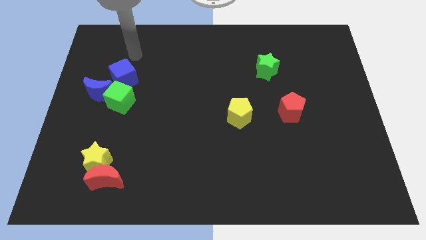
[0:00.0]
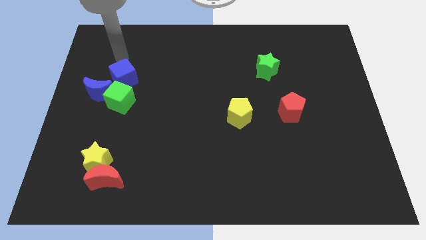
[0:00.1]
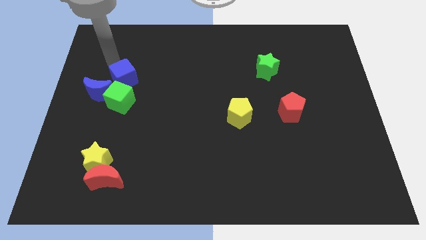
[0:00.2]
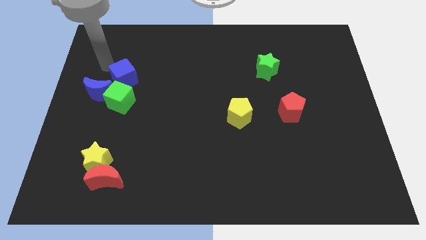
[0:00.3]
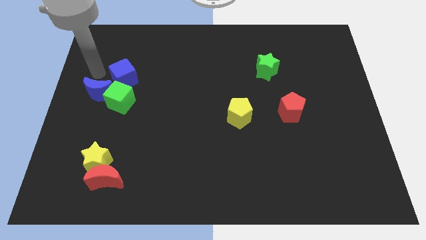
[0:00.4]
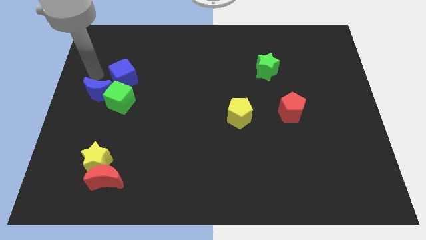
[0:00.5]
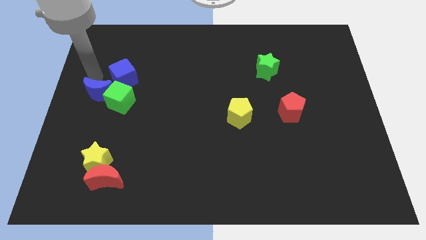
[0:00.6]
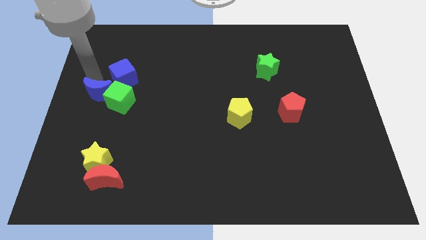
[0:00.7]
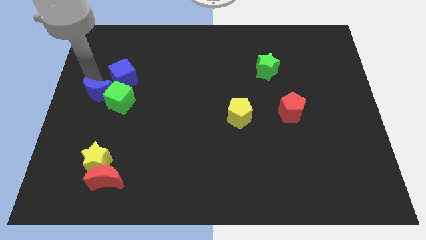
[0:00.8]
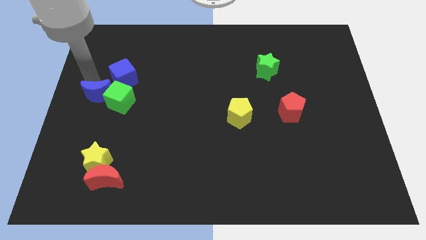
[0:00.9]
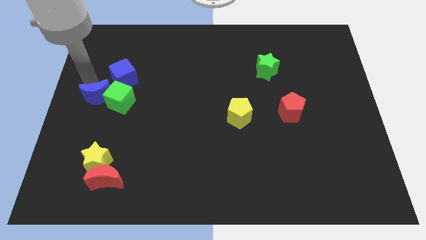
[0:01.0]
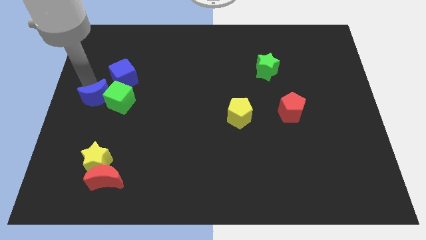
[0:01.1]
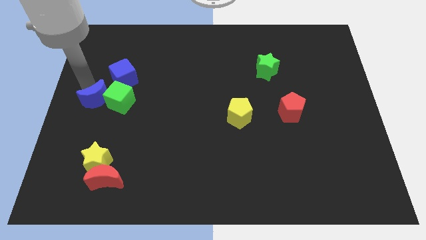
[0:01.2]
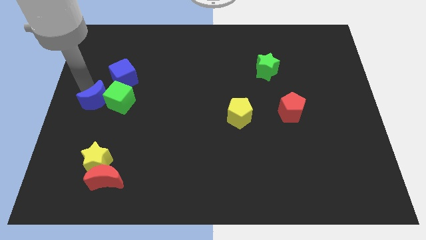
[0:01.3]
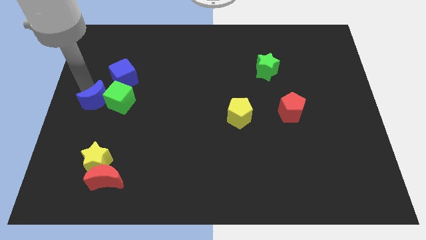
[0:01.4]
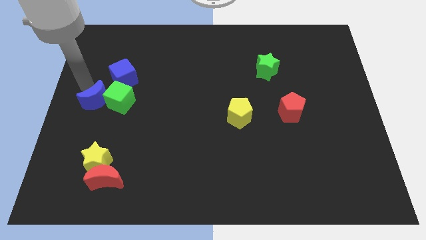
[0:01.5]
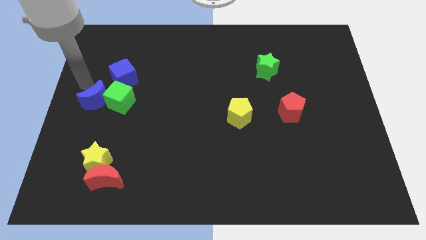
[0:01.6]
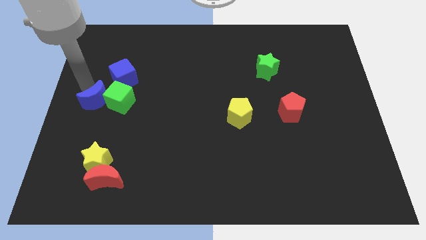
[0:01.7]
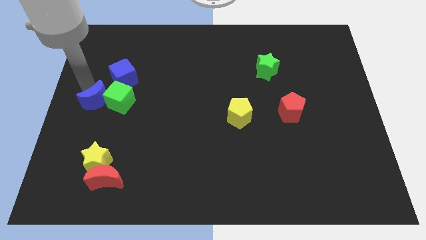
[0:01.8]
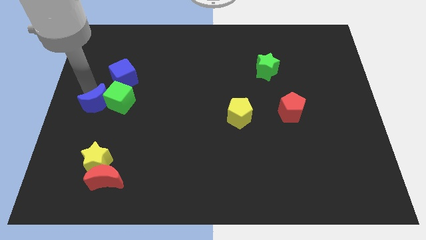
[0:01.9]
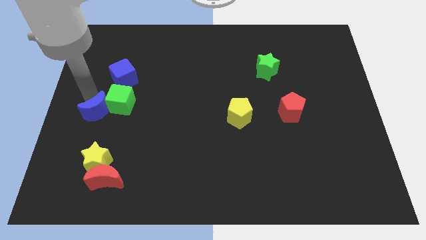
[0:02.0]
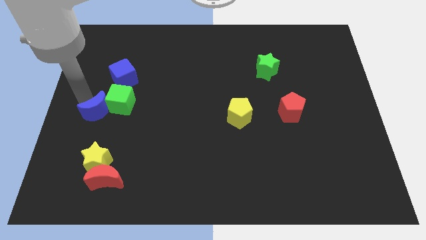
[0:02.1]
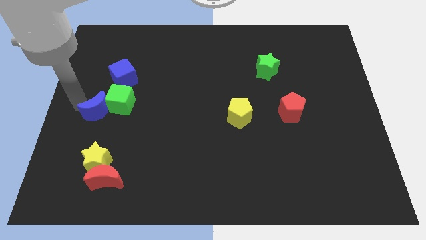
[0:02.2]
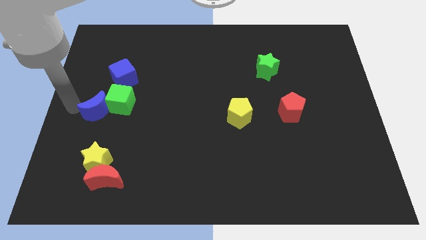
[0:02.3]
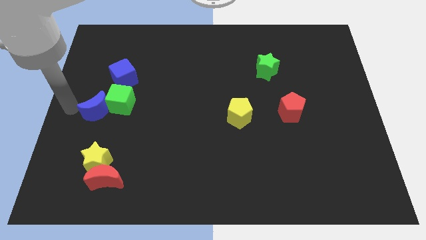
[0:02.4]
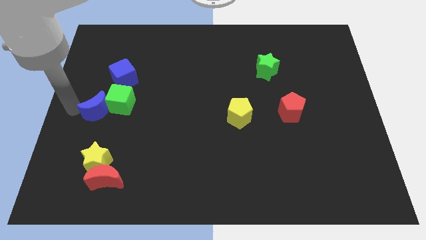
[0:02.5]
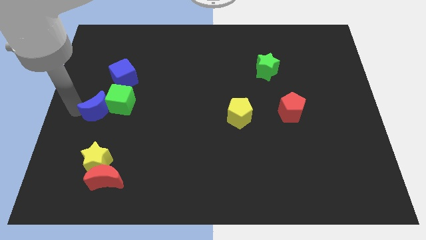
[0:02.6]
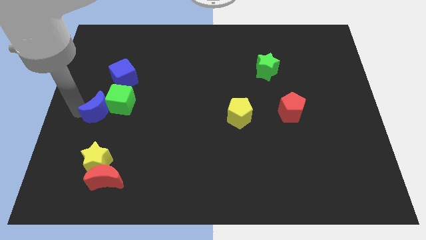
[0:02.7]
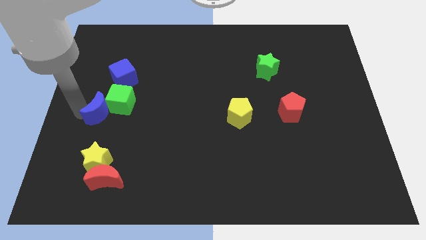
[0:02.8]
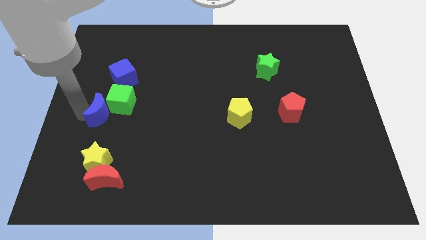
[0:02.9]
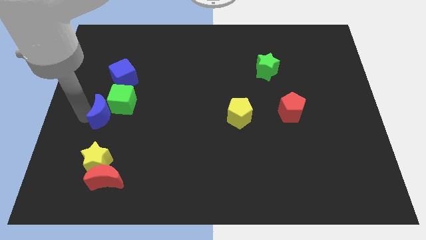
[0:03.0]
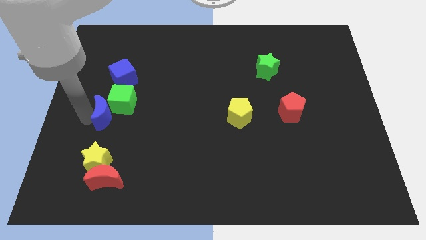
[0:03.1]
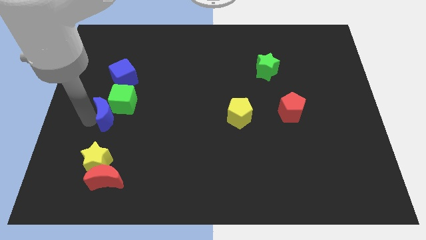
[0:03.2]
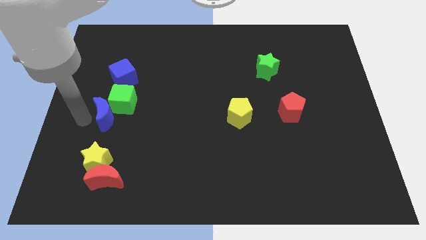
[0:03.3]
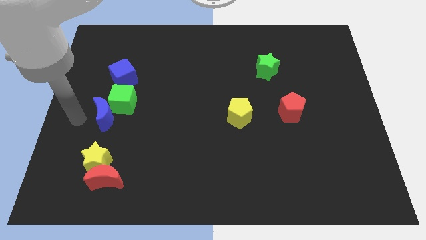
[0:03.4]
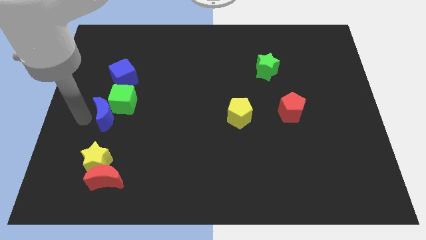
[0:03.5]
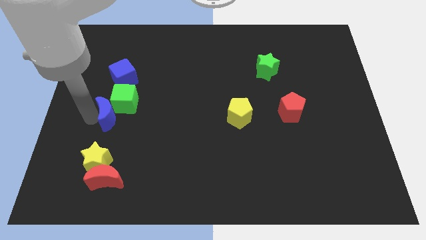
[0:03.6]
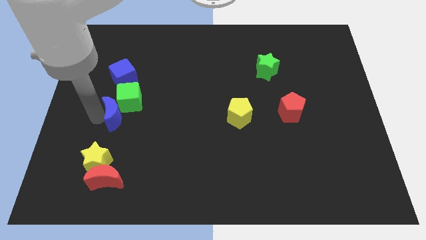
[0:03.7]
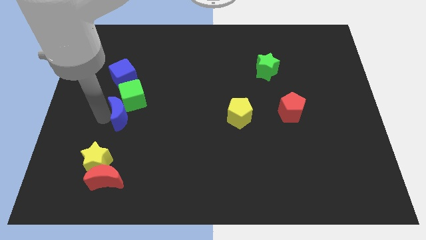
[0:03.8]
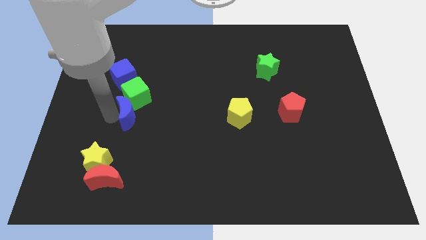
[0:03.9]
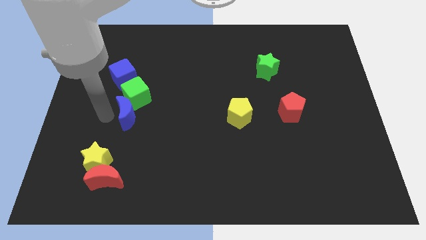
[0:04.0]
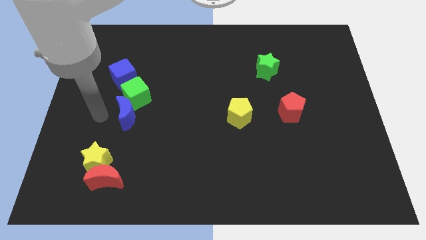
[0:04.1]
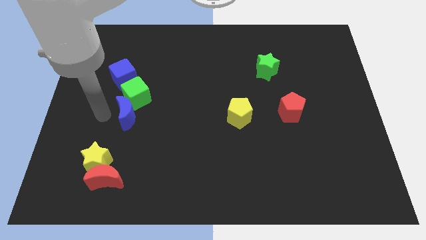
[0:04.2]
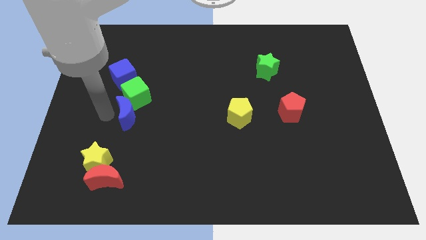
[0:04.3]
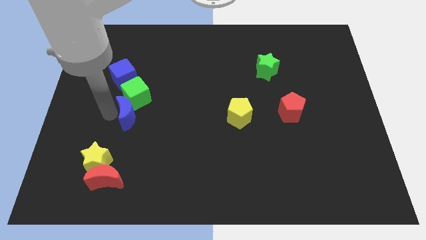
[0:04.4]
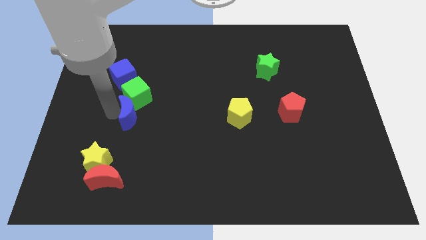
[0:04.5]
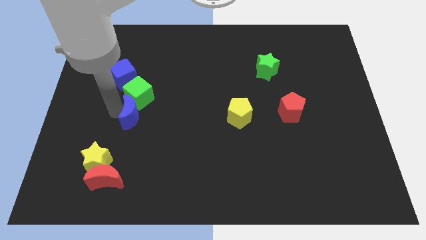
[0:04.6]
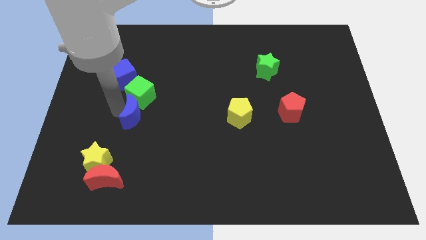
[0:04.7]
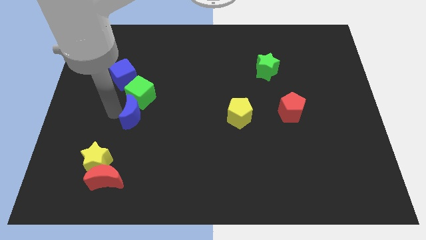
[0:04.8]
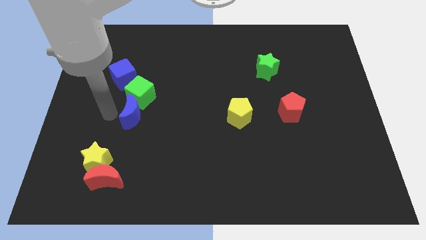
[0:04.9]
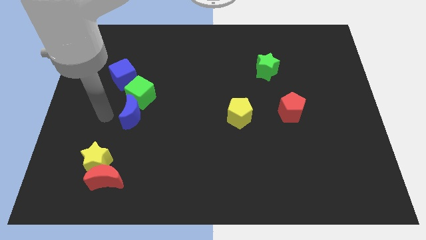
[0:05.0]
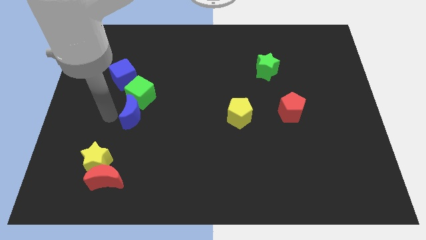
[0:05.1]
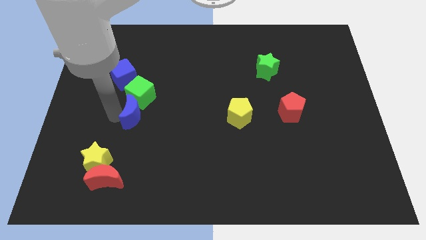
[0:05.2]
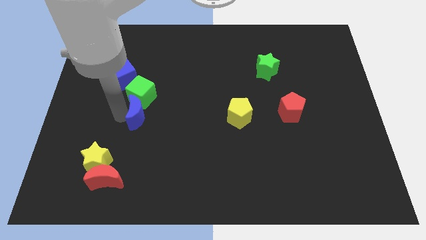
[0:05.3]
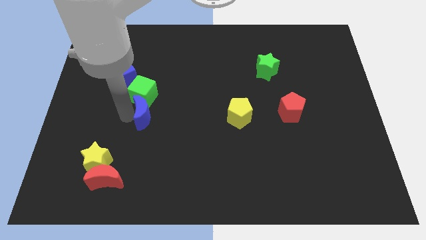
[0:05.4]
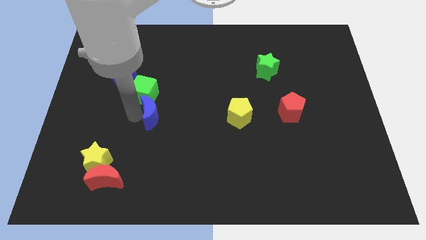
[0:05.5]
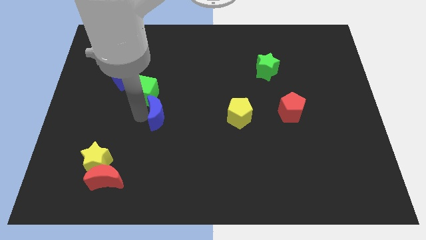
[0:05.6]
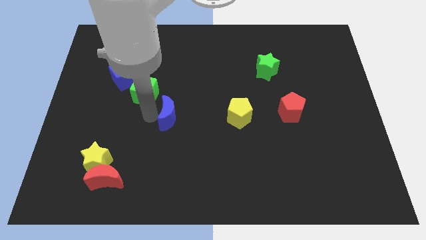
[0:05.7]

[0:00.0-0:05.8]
put the blue moon to the left of the yellow pentagon

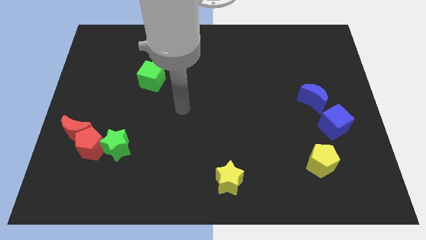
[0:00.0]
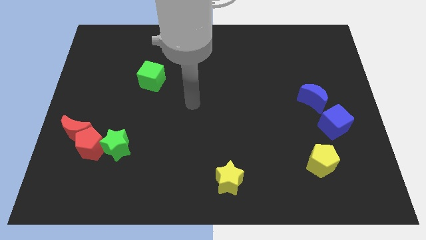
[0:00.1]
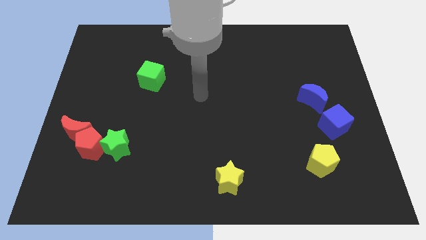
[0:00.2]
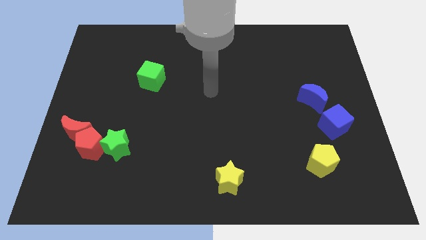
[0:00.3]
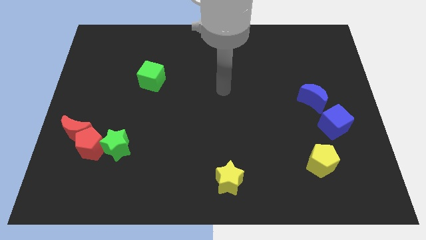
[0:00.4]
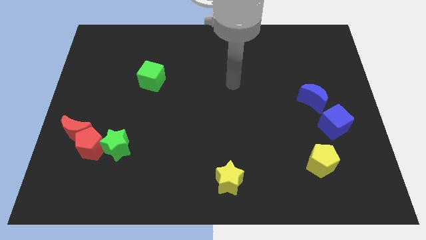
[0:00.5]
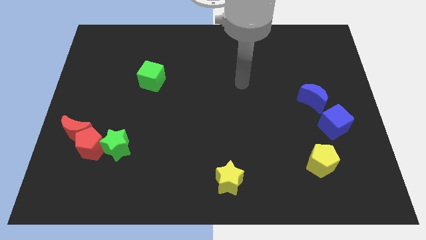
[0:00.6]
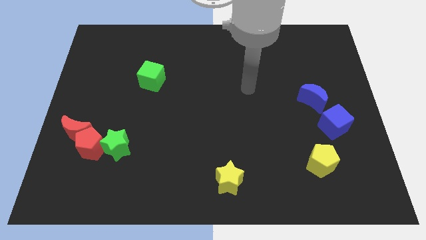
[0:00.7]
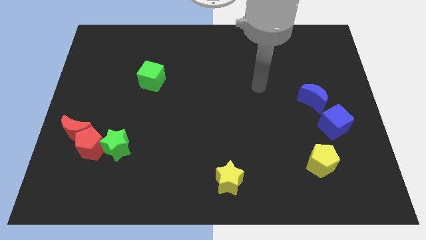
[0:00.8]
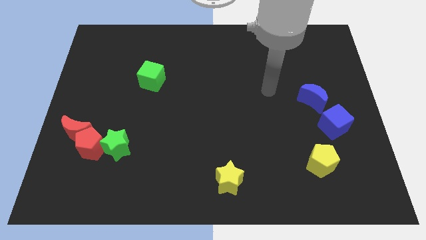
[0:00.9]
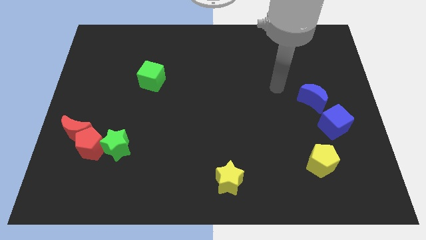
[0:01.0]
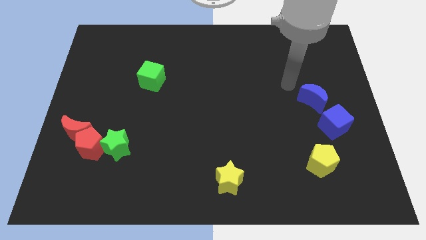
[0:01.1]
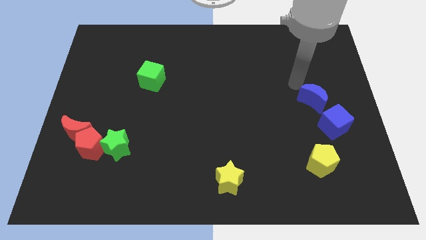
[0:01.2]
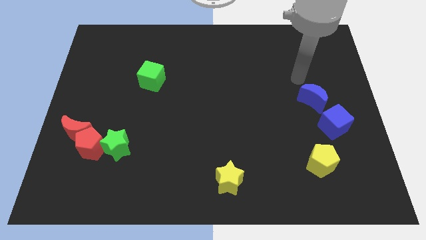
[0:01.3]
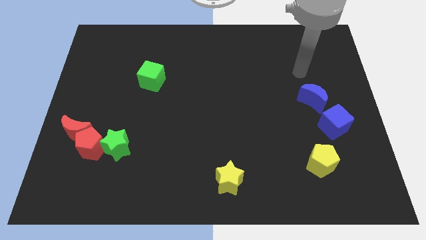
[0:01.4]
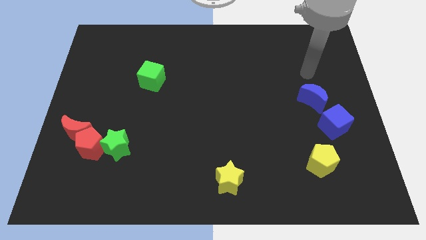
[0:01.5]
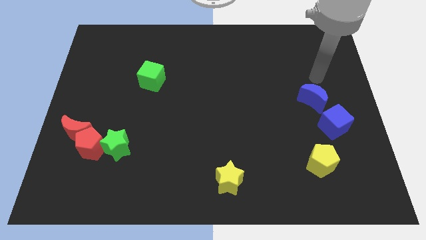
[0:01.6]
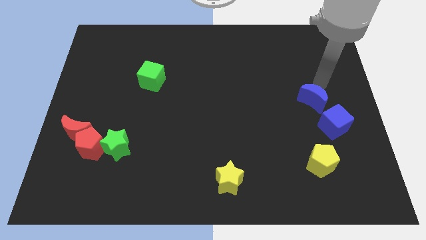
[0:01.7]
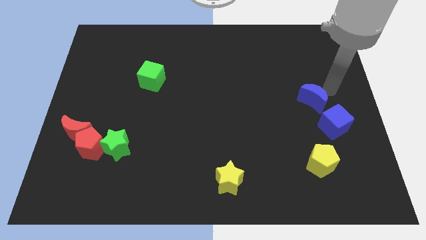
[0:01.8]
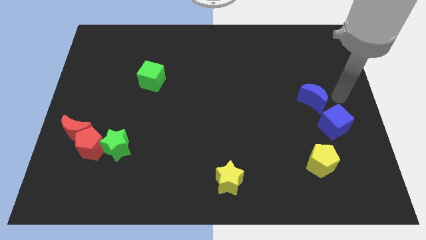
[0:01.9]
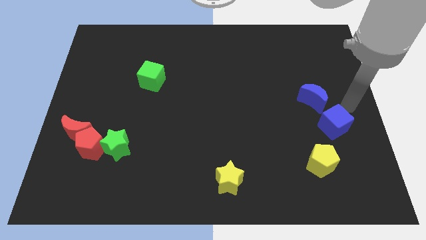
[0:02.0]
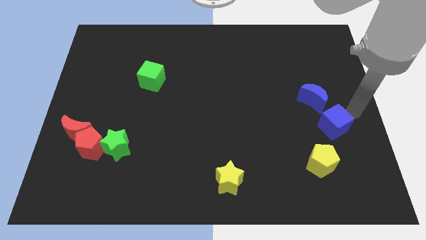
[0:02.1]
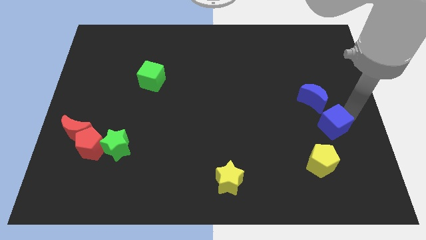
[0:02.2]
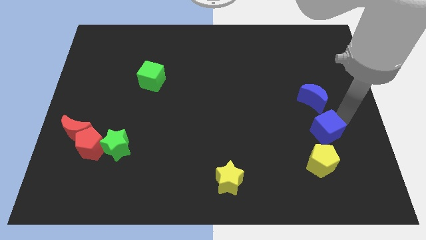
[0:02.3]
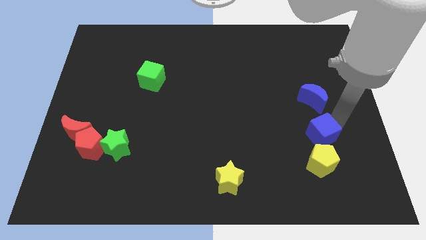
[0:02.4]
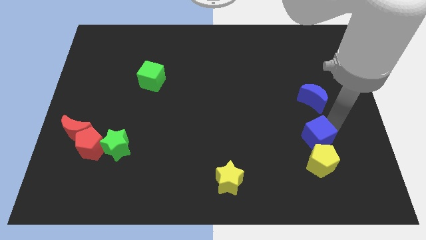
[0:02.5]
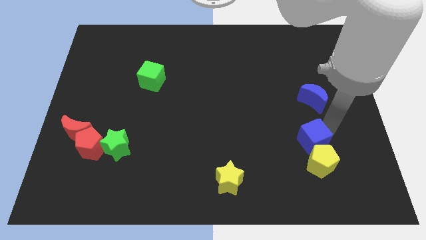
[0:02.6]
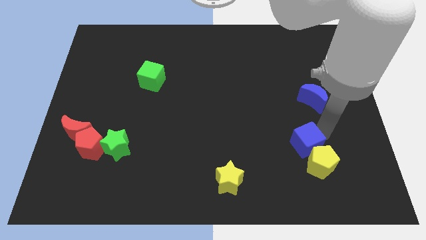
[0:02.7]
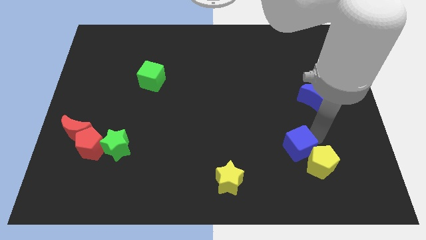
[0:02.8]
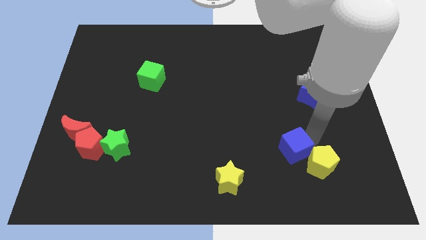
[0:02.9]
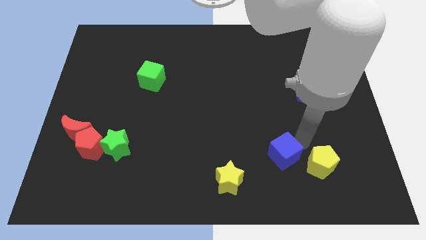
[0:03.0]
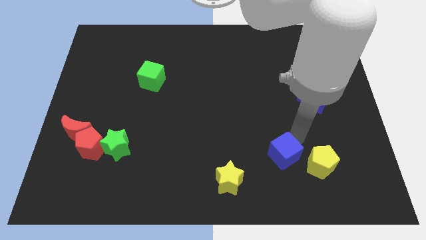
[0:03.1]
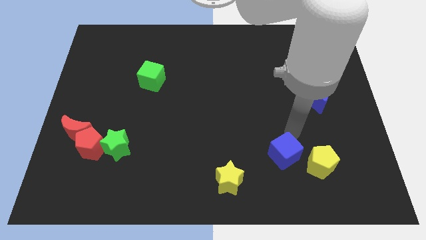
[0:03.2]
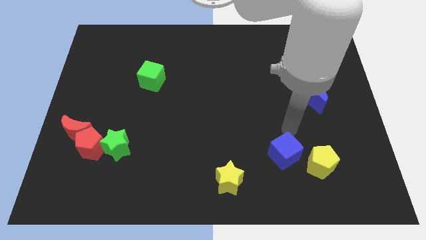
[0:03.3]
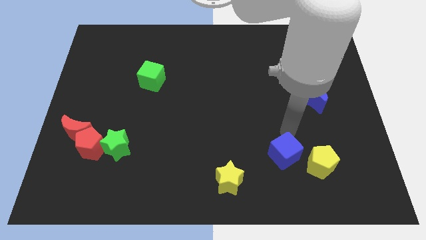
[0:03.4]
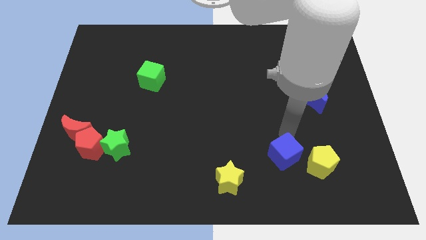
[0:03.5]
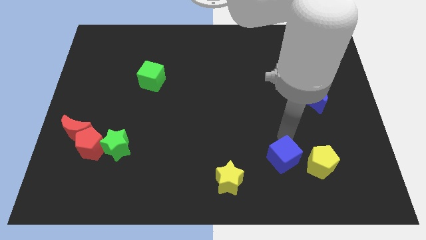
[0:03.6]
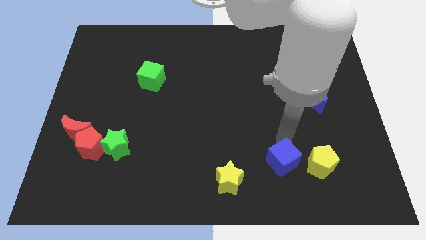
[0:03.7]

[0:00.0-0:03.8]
slide the blue cube just right of the yellow star
